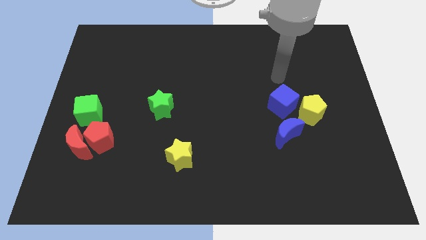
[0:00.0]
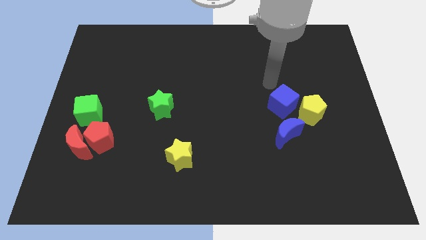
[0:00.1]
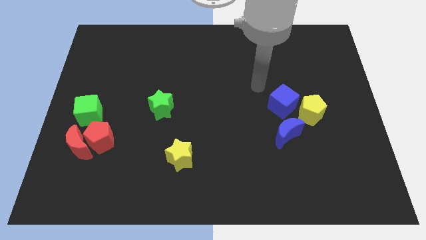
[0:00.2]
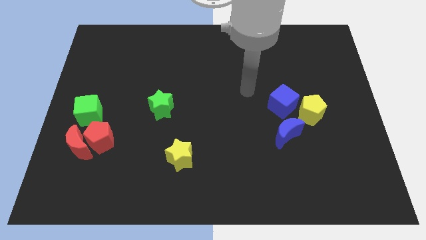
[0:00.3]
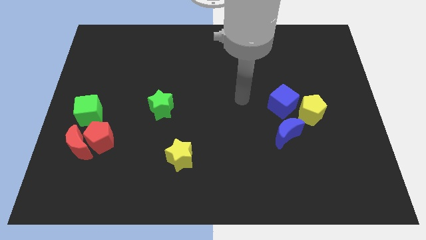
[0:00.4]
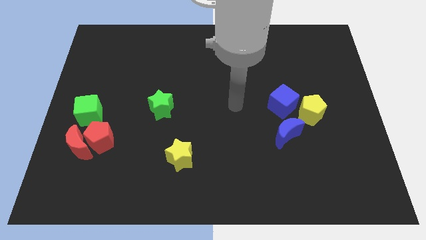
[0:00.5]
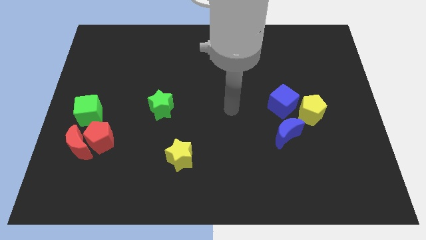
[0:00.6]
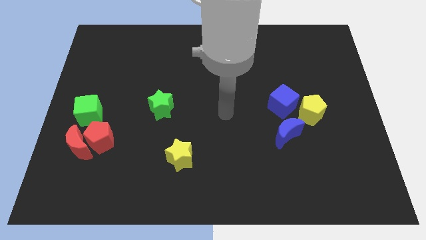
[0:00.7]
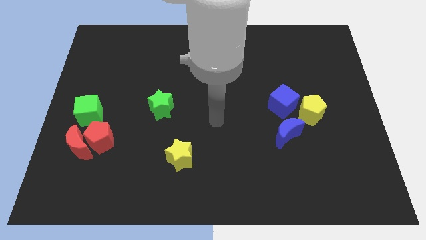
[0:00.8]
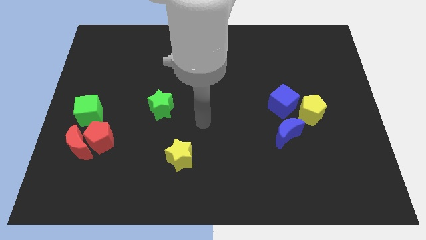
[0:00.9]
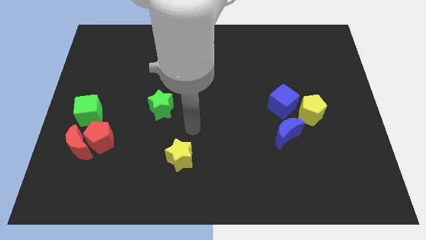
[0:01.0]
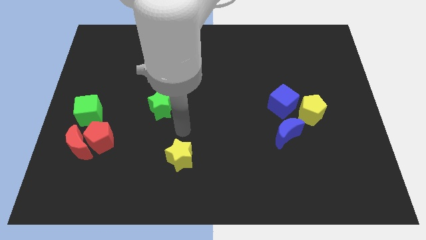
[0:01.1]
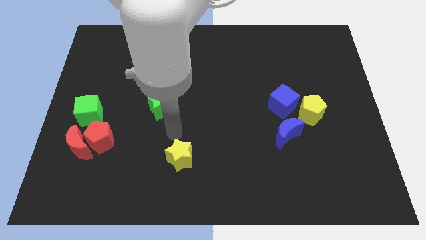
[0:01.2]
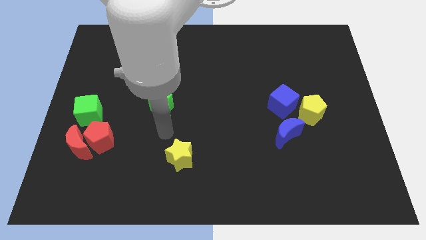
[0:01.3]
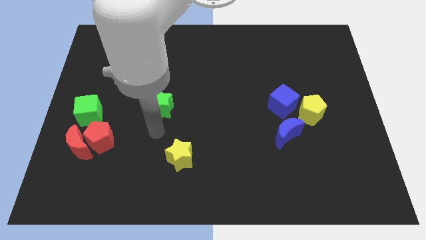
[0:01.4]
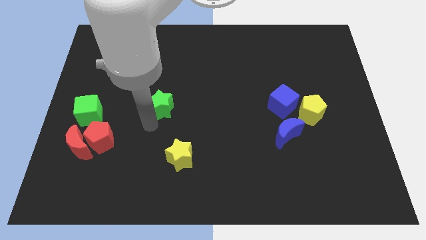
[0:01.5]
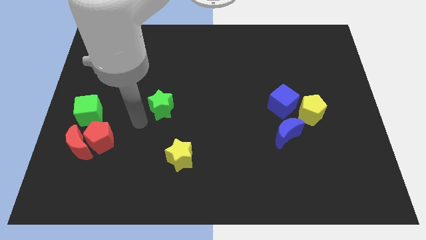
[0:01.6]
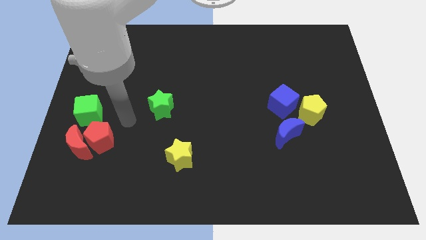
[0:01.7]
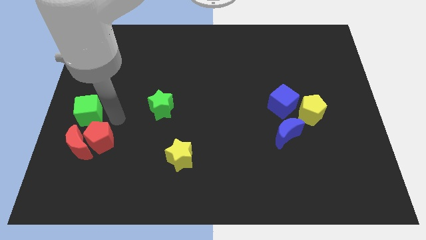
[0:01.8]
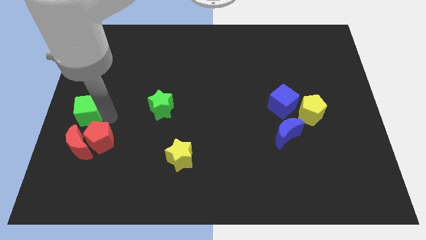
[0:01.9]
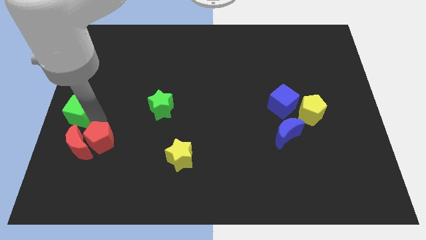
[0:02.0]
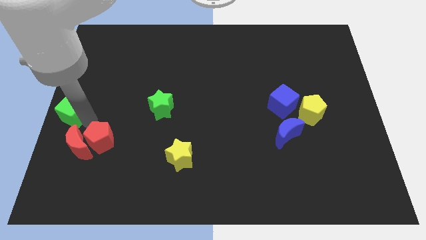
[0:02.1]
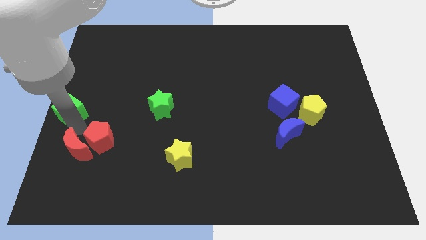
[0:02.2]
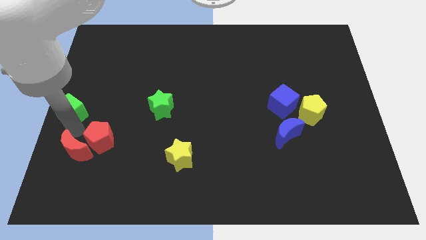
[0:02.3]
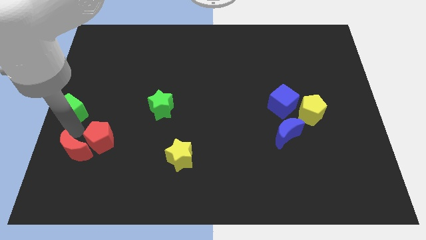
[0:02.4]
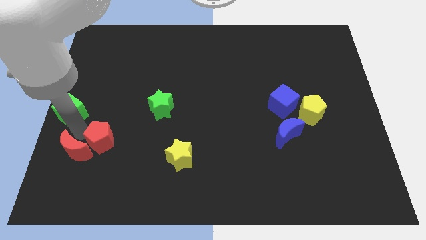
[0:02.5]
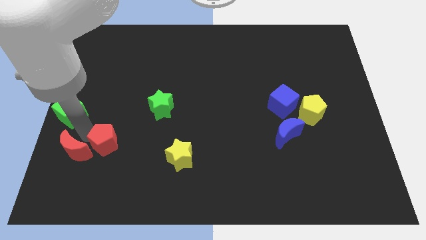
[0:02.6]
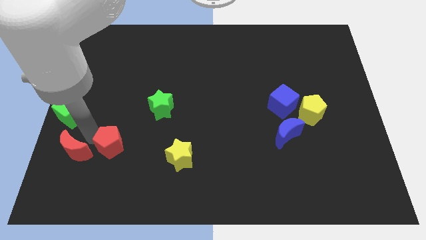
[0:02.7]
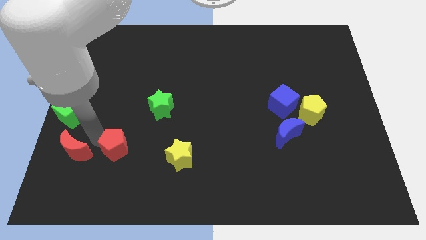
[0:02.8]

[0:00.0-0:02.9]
pull the red pentagon apart from the red moon and green cube

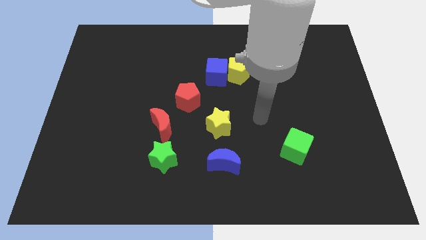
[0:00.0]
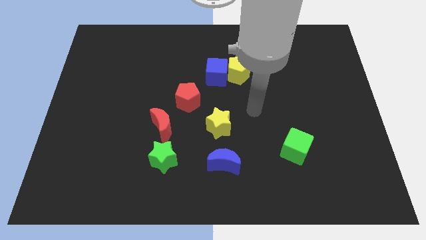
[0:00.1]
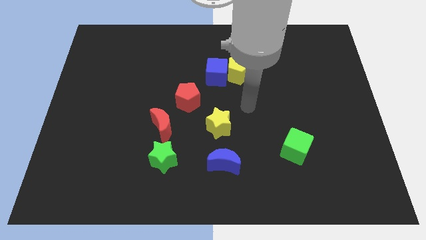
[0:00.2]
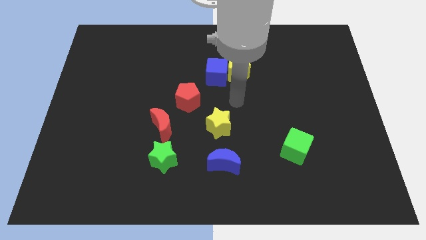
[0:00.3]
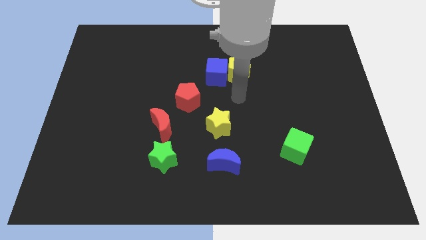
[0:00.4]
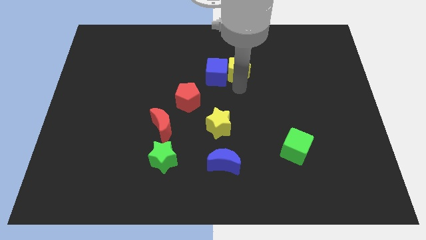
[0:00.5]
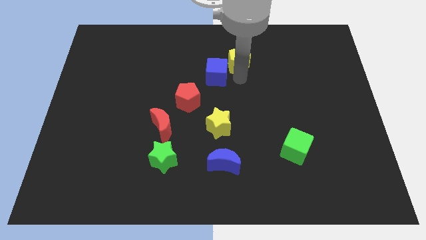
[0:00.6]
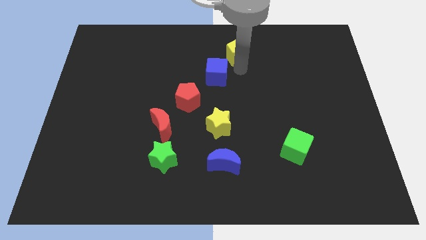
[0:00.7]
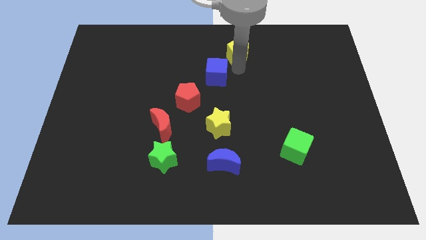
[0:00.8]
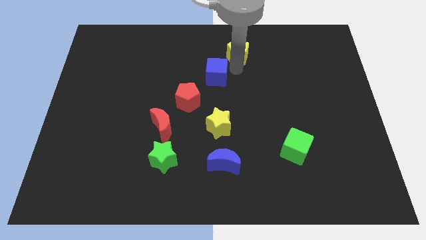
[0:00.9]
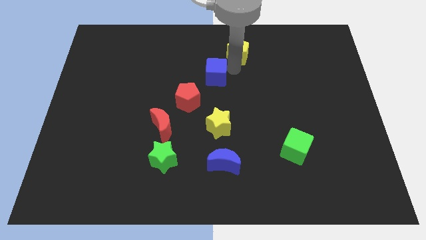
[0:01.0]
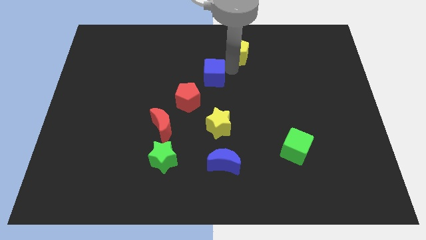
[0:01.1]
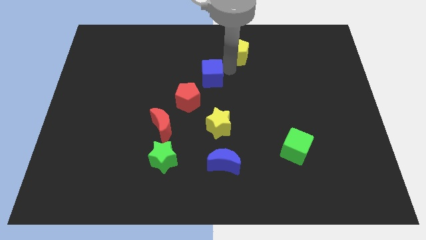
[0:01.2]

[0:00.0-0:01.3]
move the blue cube away from the yellow pentagon

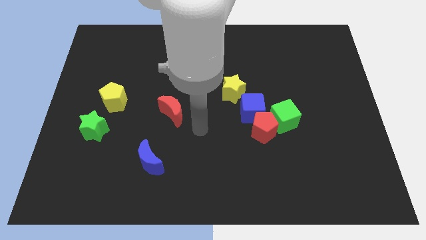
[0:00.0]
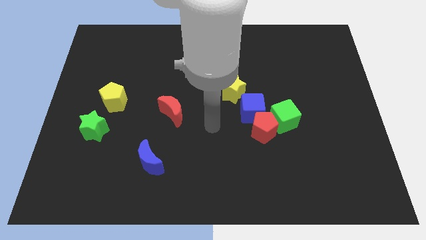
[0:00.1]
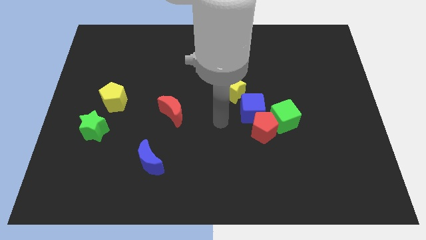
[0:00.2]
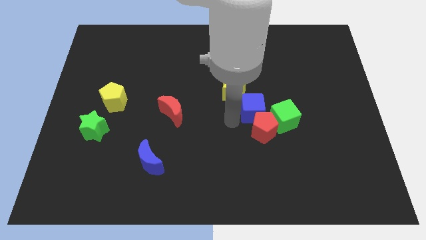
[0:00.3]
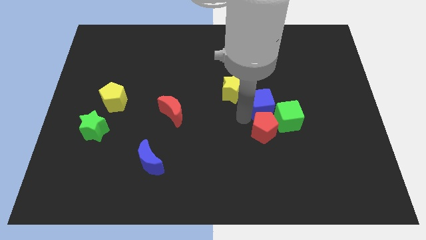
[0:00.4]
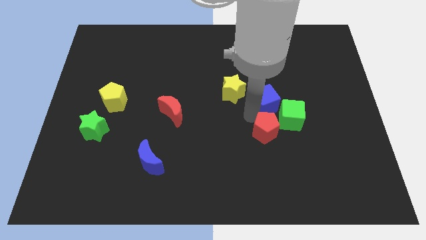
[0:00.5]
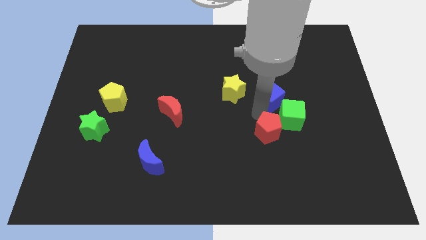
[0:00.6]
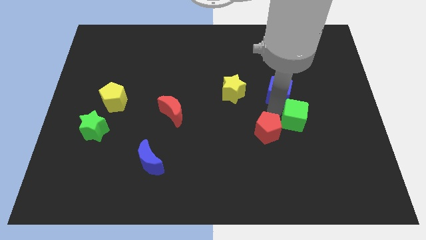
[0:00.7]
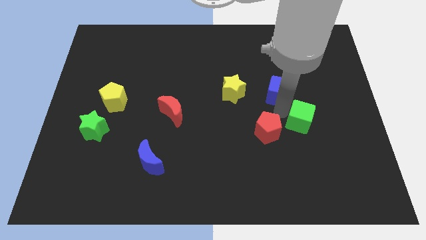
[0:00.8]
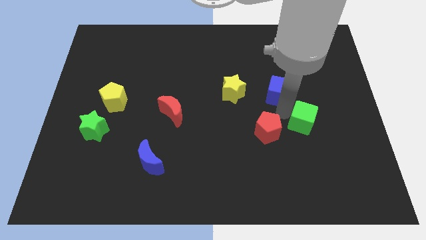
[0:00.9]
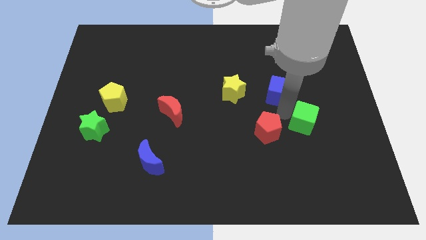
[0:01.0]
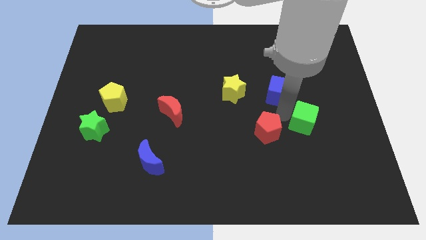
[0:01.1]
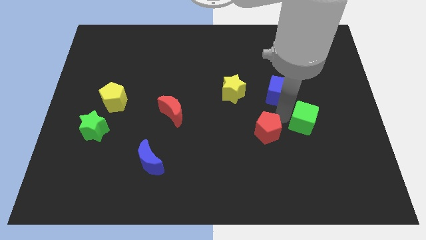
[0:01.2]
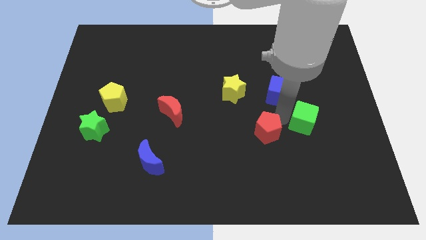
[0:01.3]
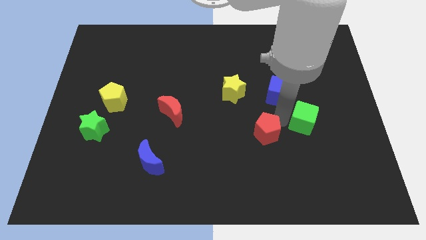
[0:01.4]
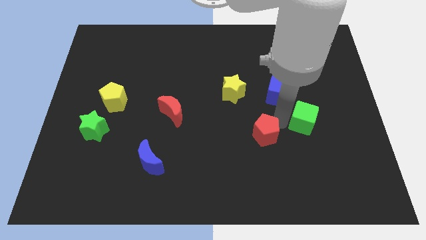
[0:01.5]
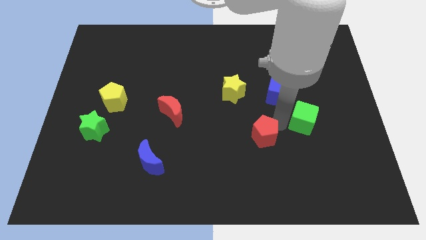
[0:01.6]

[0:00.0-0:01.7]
pull the red pentagon apart from the green cube and blue cube

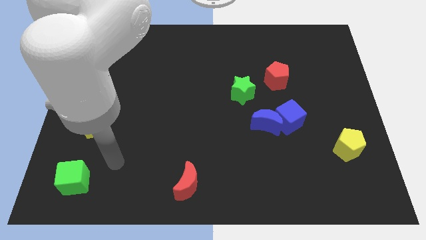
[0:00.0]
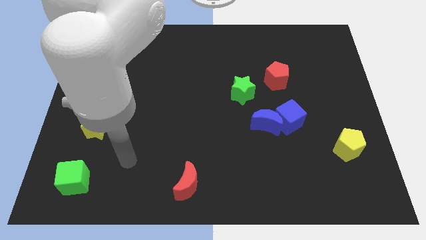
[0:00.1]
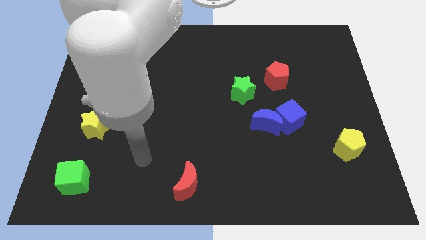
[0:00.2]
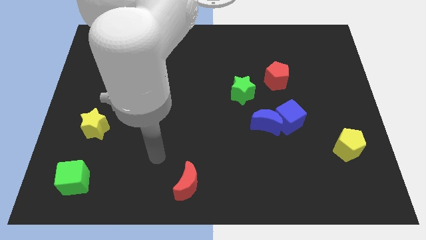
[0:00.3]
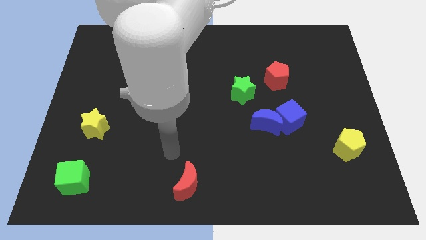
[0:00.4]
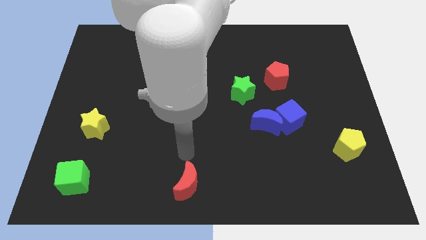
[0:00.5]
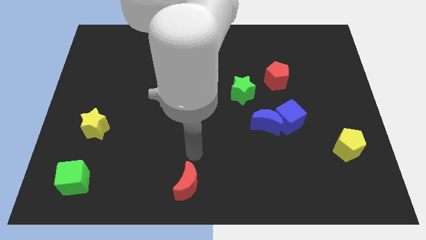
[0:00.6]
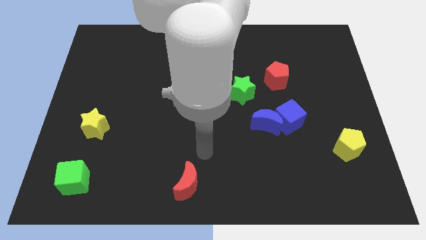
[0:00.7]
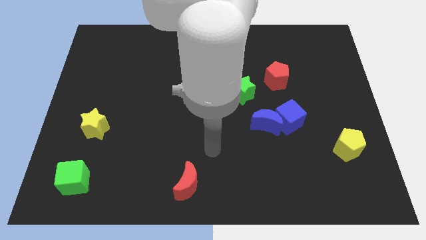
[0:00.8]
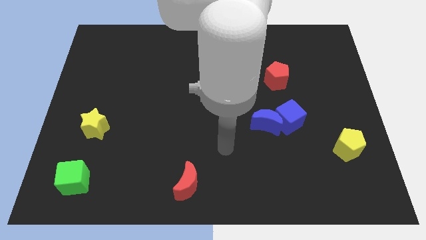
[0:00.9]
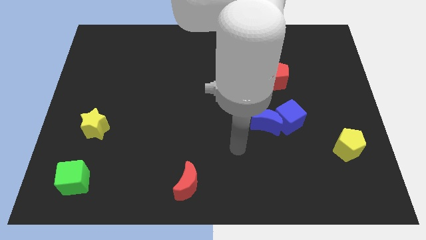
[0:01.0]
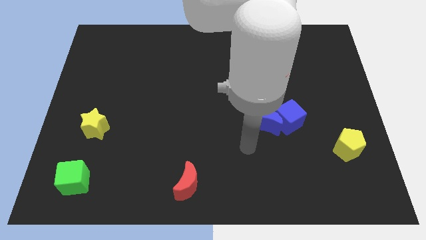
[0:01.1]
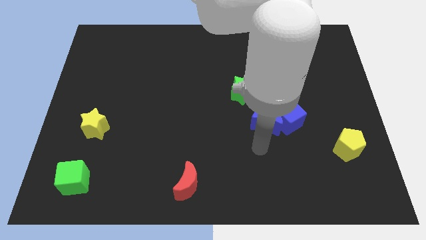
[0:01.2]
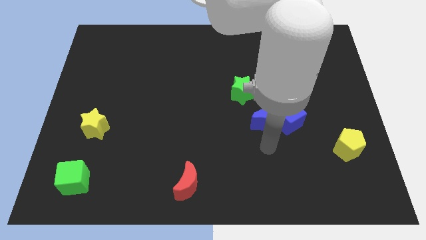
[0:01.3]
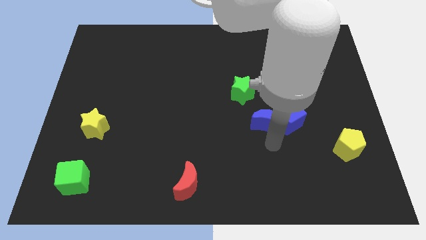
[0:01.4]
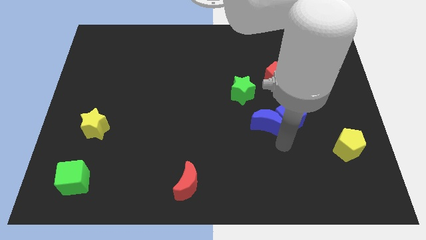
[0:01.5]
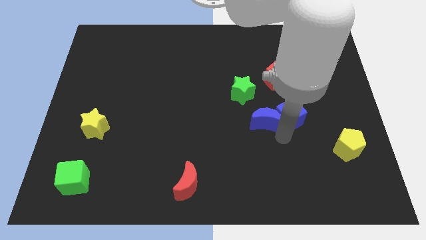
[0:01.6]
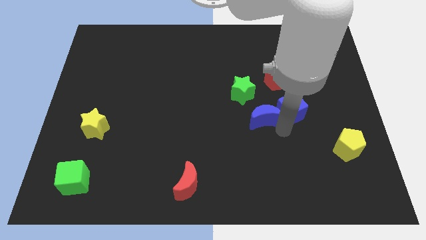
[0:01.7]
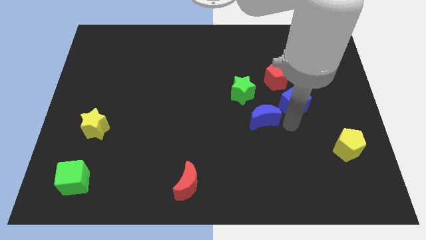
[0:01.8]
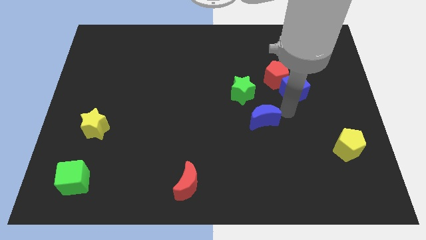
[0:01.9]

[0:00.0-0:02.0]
move the blue moon away from the blue cube

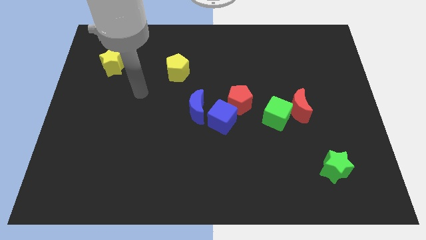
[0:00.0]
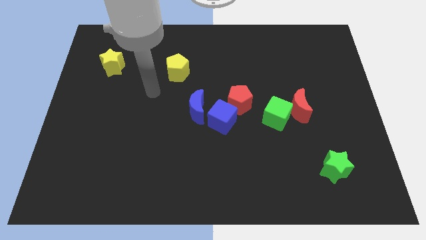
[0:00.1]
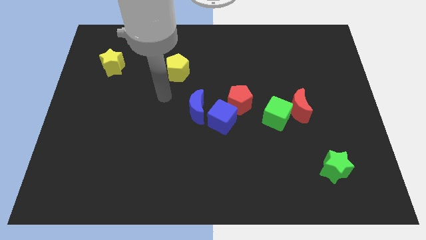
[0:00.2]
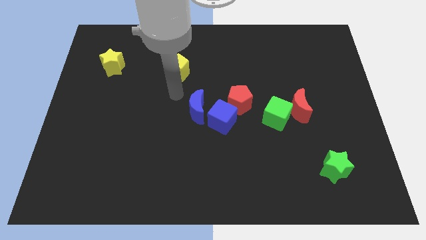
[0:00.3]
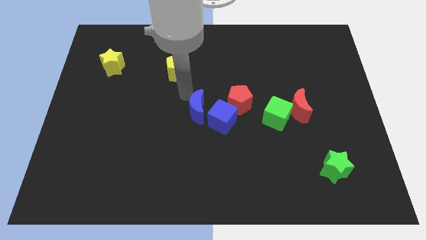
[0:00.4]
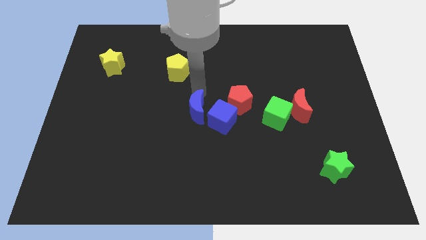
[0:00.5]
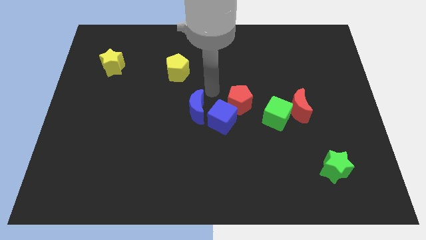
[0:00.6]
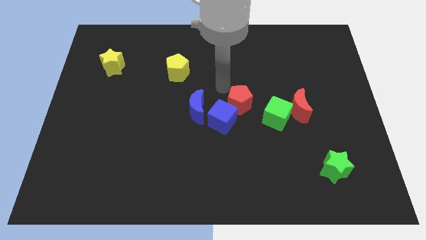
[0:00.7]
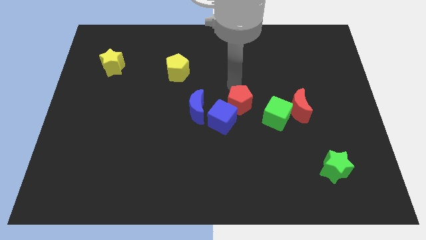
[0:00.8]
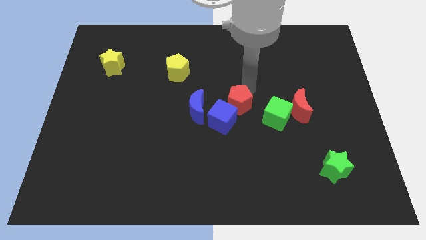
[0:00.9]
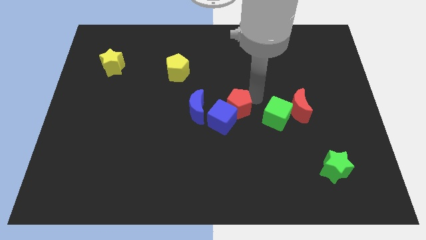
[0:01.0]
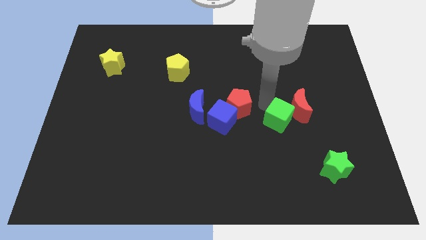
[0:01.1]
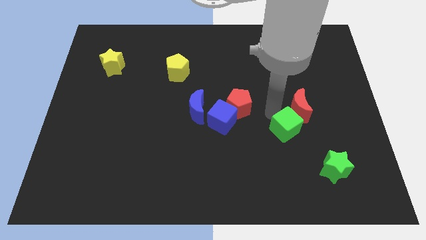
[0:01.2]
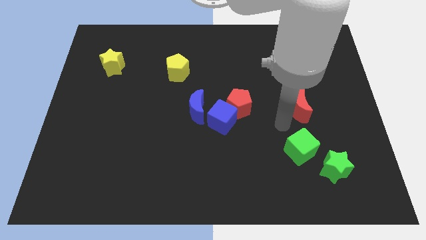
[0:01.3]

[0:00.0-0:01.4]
separate the red moon from the green cube
